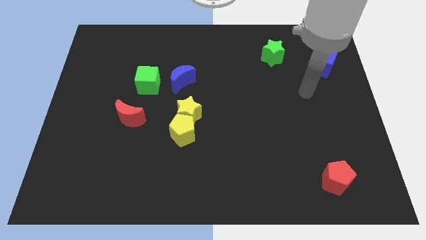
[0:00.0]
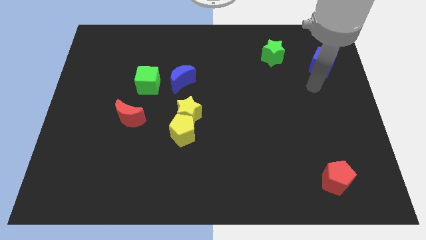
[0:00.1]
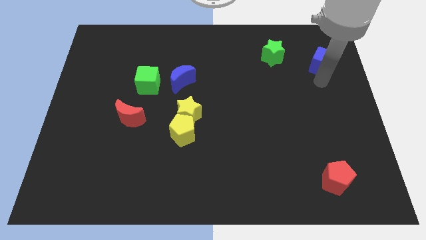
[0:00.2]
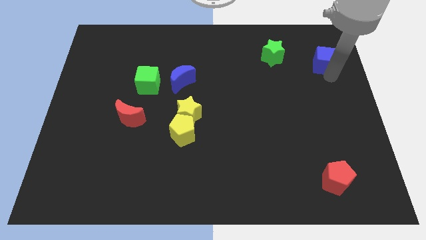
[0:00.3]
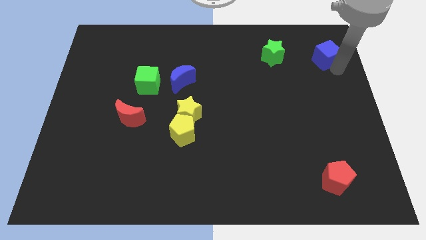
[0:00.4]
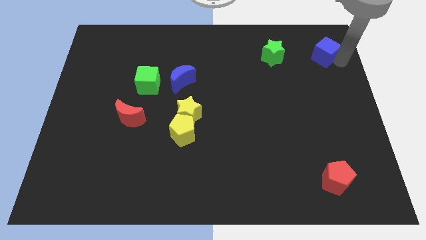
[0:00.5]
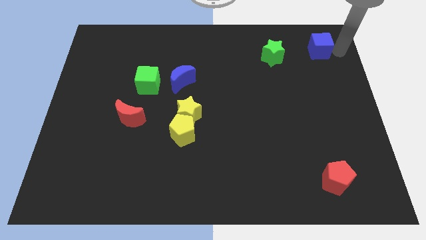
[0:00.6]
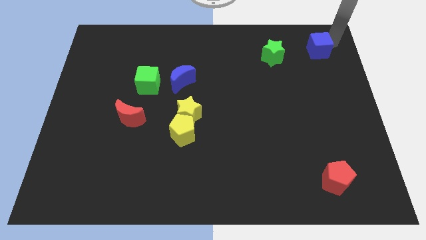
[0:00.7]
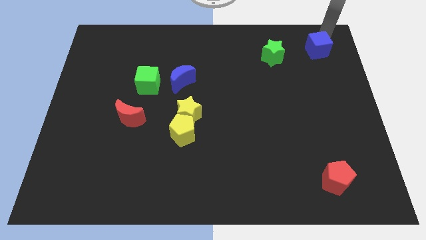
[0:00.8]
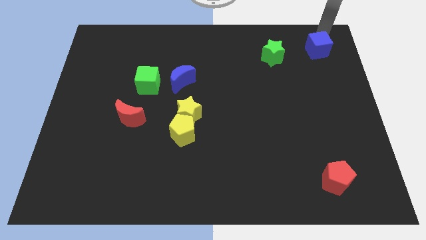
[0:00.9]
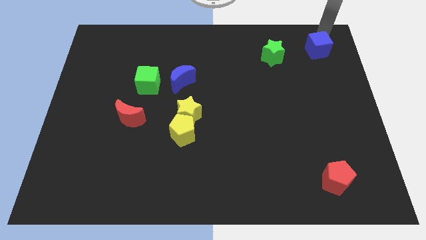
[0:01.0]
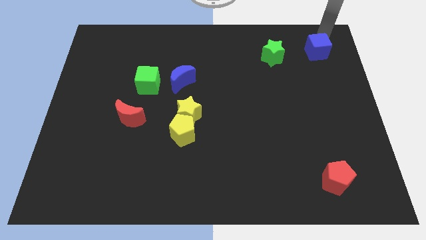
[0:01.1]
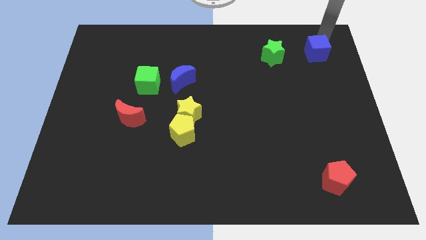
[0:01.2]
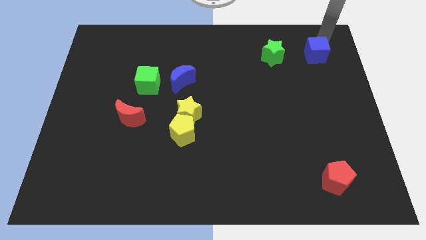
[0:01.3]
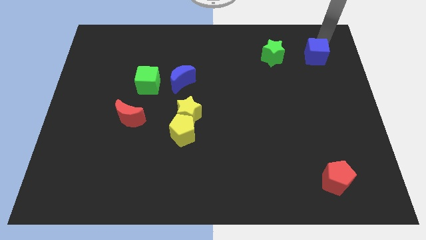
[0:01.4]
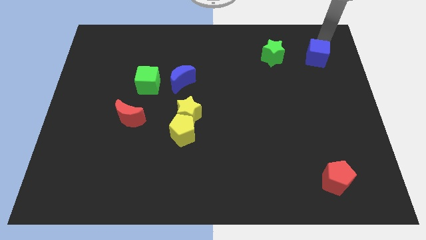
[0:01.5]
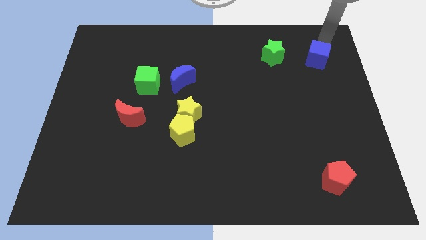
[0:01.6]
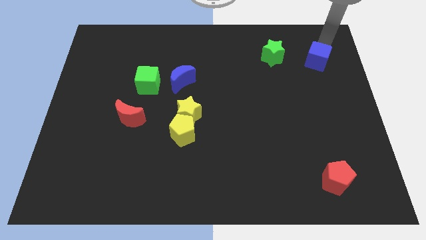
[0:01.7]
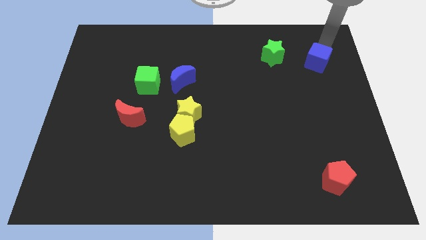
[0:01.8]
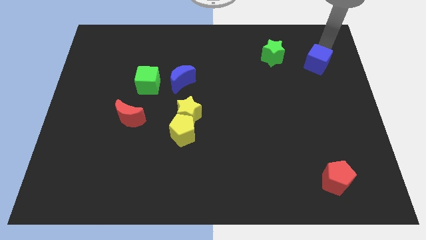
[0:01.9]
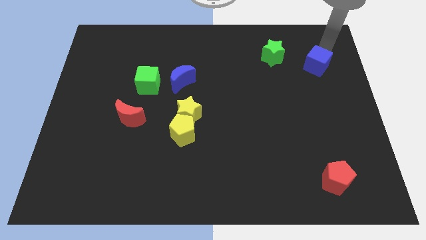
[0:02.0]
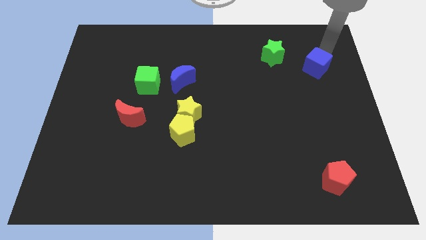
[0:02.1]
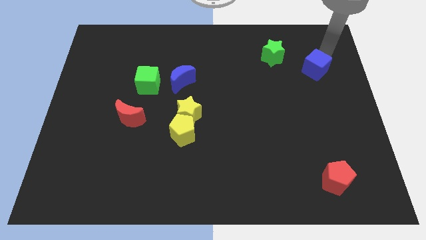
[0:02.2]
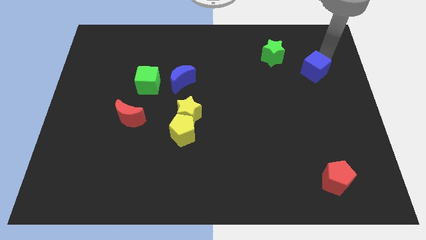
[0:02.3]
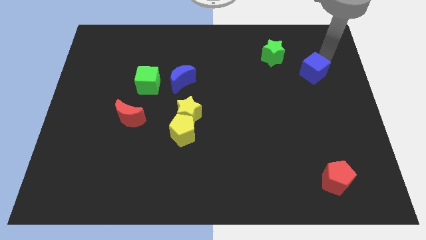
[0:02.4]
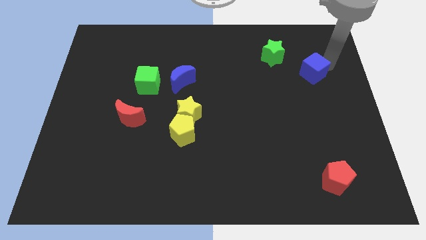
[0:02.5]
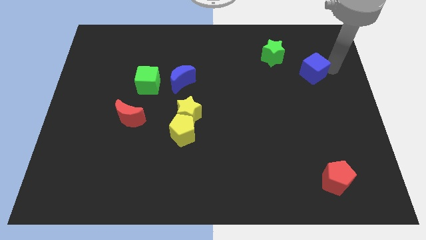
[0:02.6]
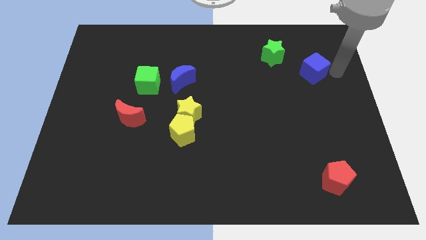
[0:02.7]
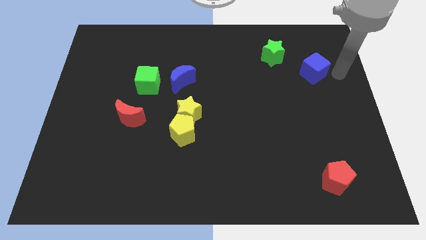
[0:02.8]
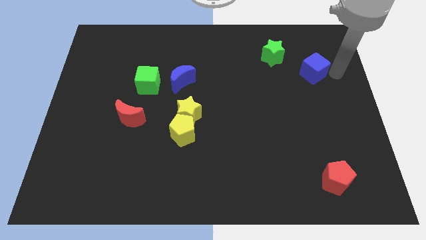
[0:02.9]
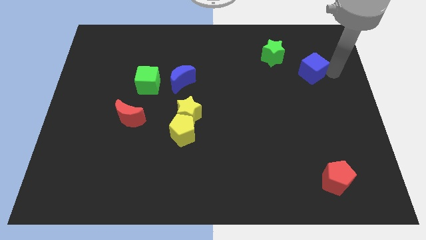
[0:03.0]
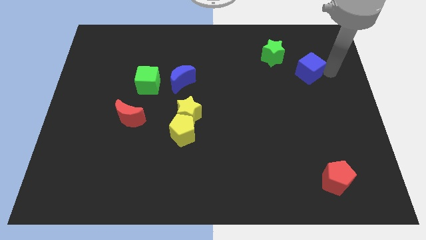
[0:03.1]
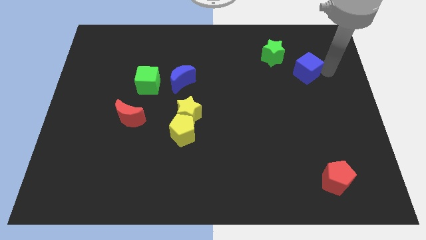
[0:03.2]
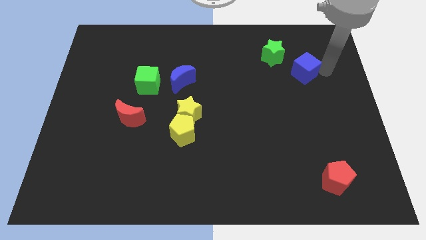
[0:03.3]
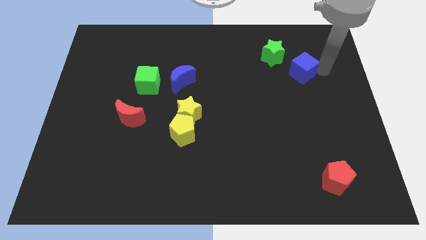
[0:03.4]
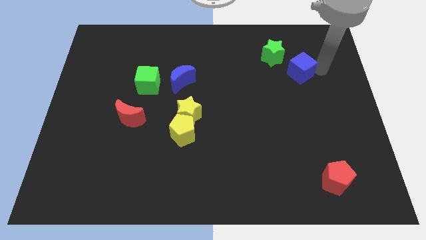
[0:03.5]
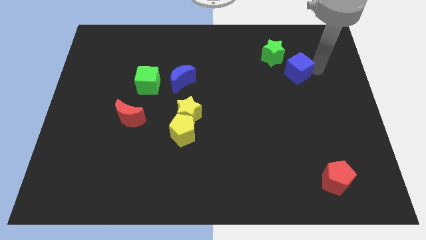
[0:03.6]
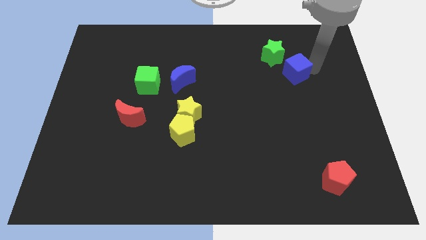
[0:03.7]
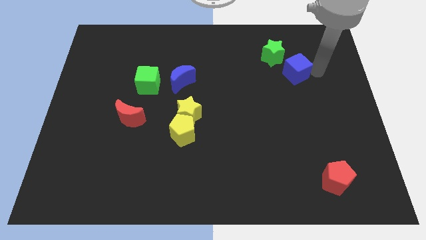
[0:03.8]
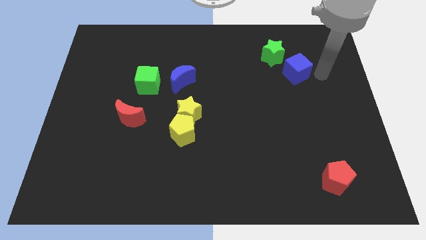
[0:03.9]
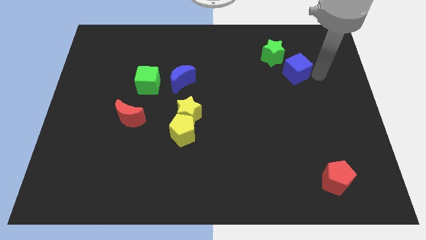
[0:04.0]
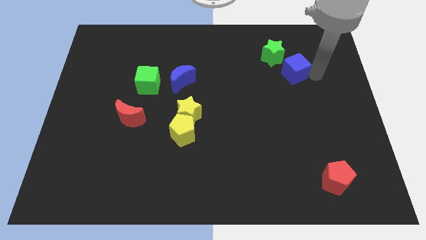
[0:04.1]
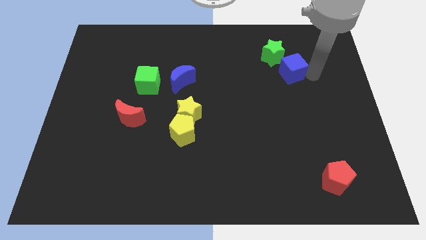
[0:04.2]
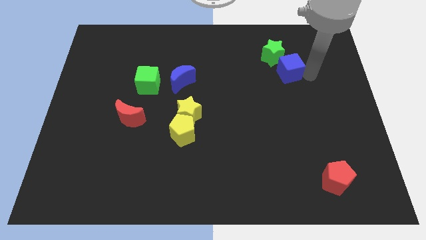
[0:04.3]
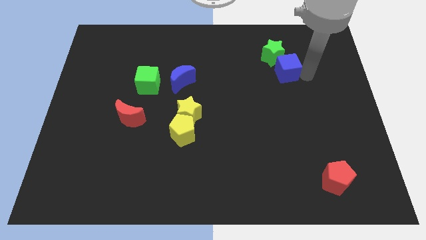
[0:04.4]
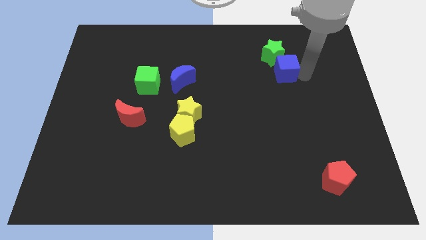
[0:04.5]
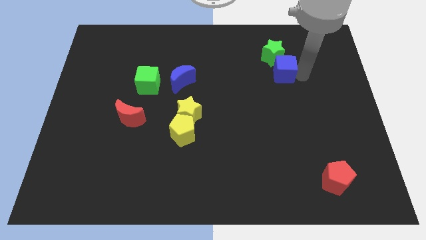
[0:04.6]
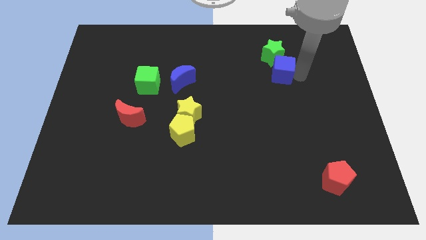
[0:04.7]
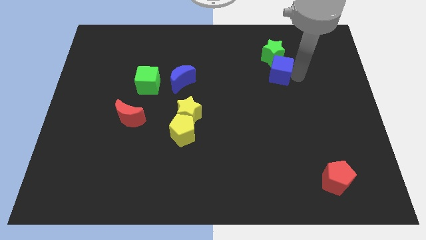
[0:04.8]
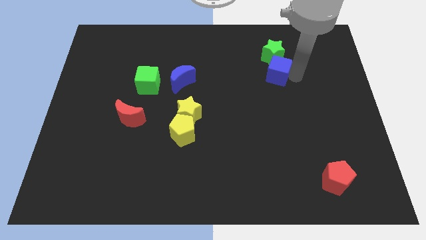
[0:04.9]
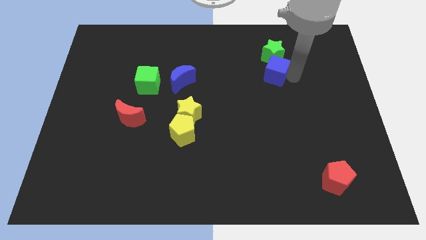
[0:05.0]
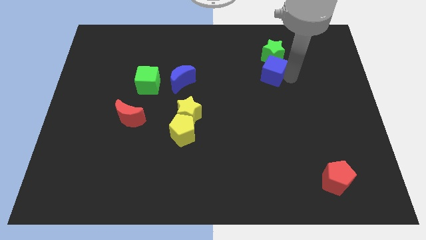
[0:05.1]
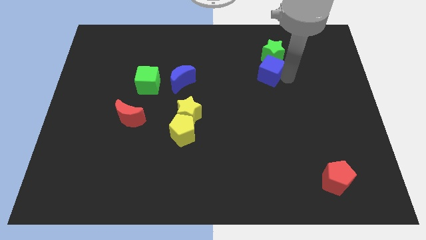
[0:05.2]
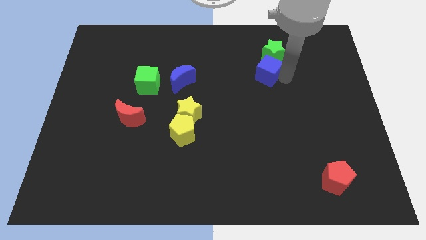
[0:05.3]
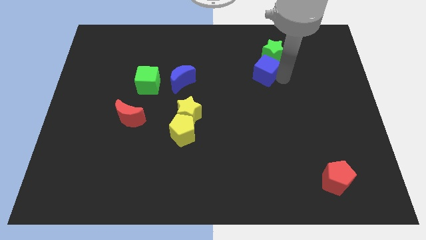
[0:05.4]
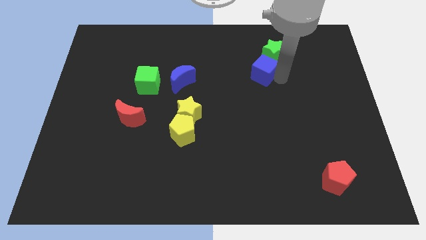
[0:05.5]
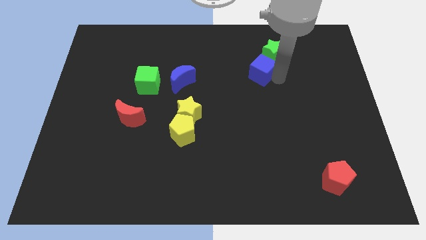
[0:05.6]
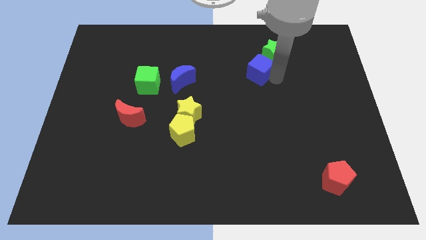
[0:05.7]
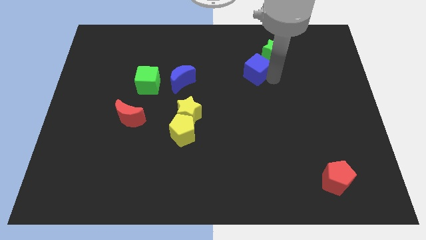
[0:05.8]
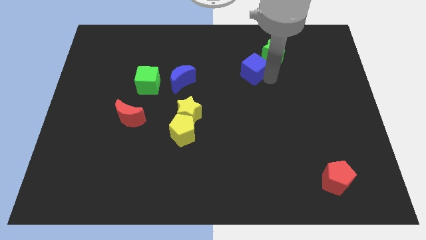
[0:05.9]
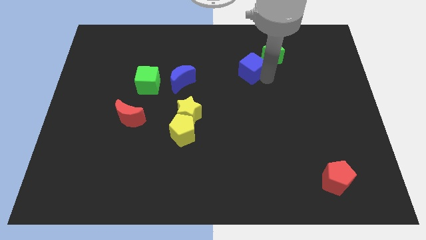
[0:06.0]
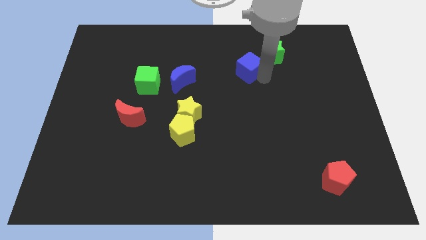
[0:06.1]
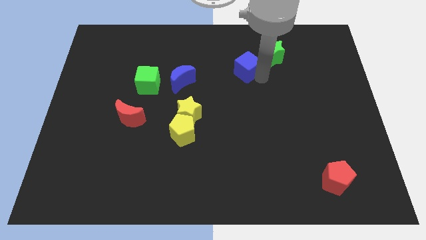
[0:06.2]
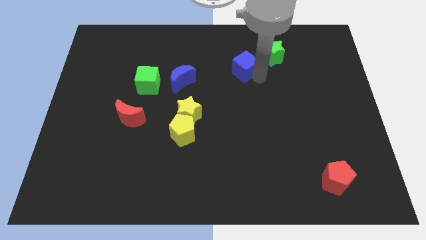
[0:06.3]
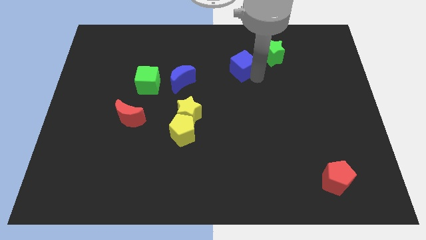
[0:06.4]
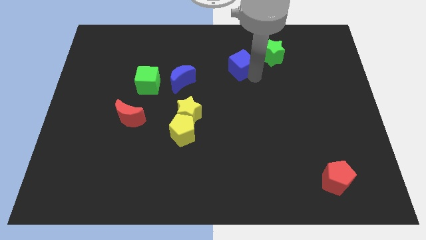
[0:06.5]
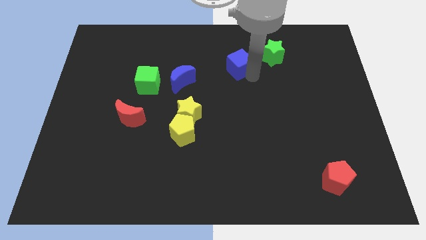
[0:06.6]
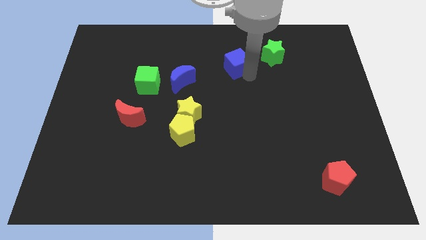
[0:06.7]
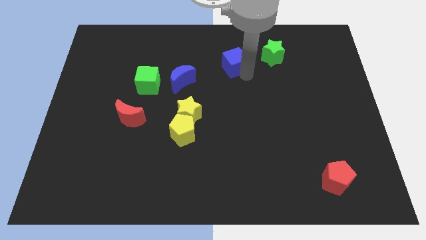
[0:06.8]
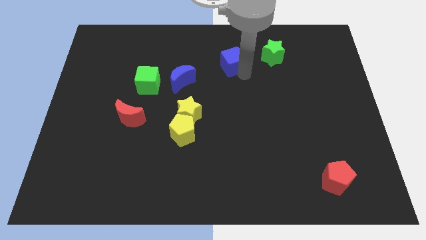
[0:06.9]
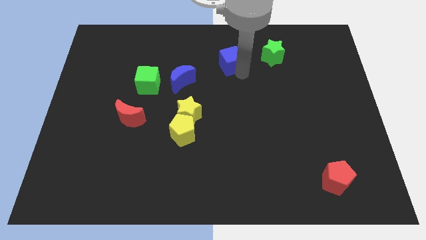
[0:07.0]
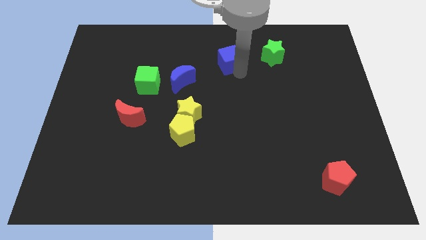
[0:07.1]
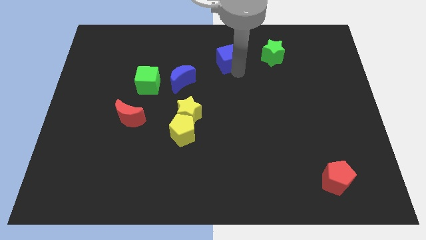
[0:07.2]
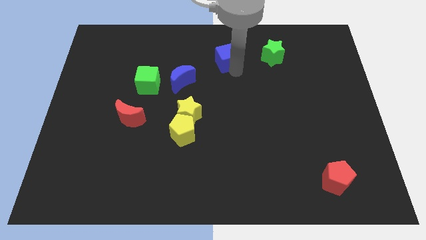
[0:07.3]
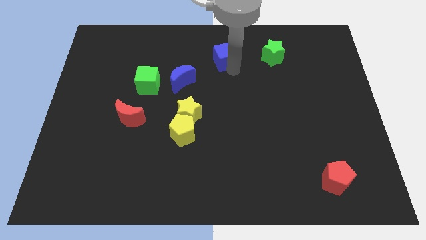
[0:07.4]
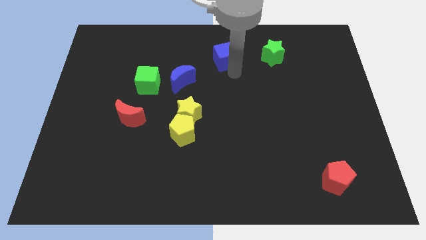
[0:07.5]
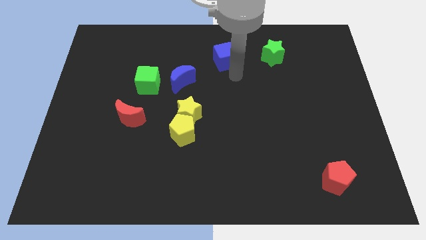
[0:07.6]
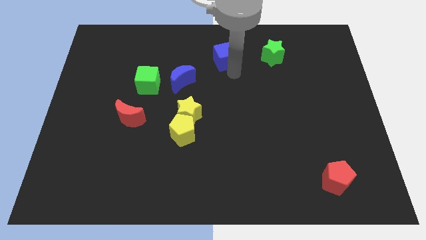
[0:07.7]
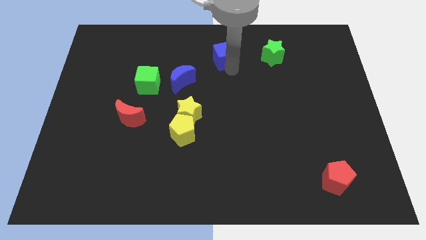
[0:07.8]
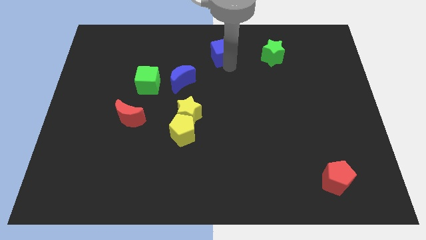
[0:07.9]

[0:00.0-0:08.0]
put the blue cube to the top
